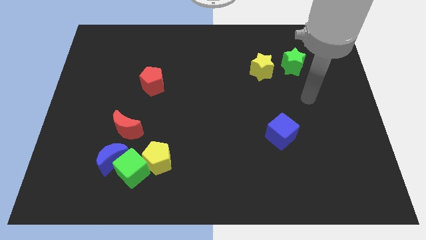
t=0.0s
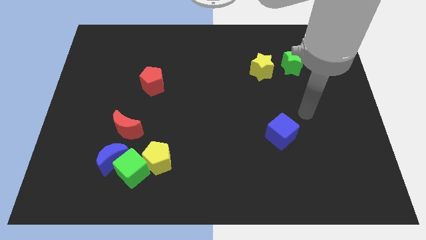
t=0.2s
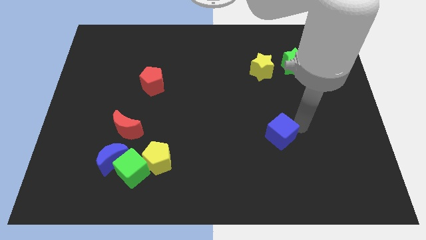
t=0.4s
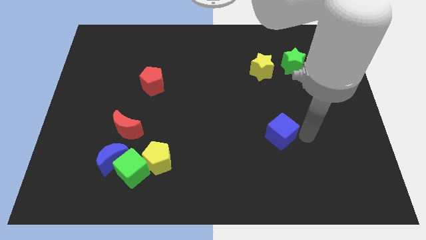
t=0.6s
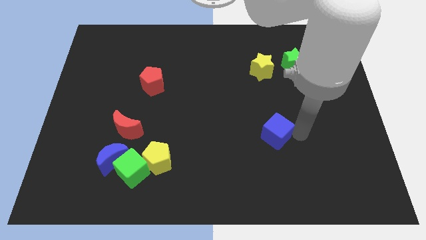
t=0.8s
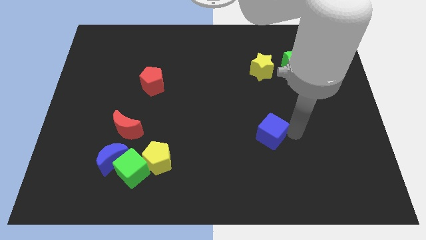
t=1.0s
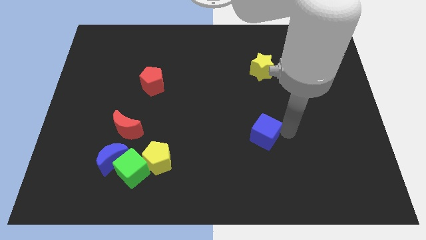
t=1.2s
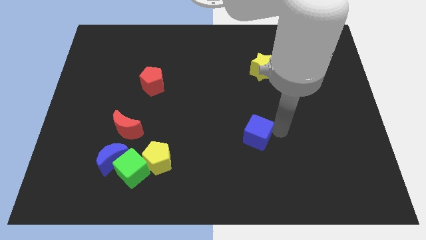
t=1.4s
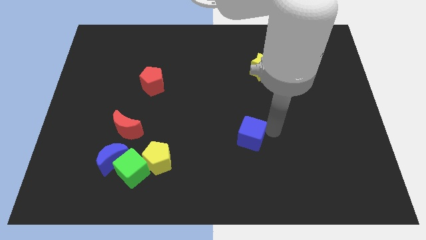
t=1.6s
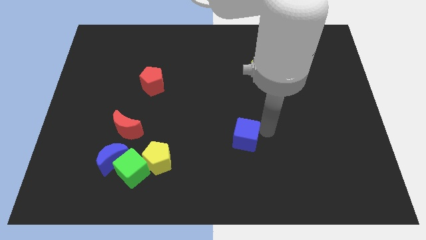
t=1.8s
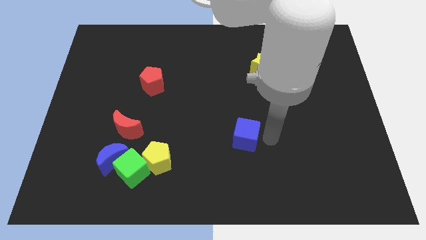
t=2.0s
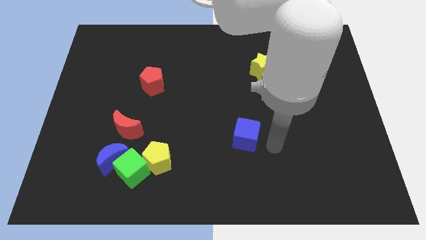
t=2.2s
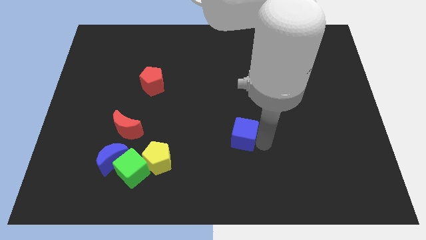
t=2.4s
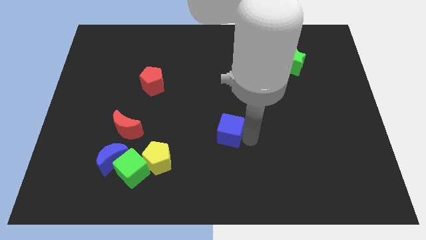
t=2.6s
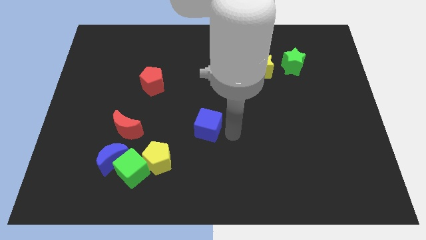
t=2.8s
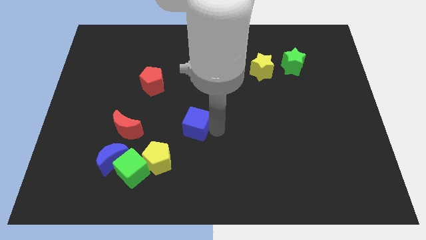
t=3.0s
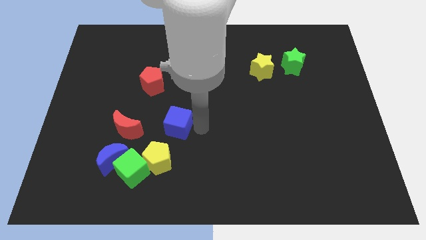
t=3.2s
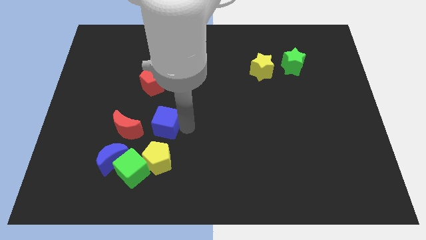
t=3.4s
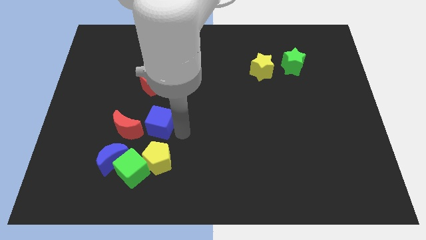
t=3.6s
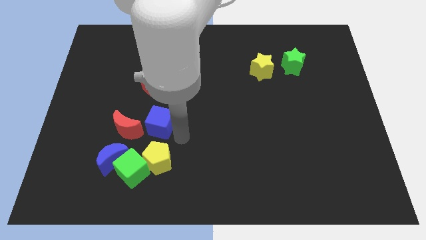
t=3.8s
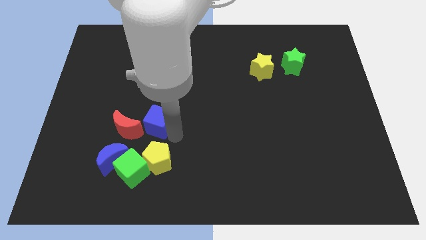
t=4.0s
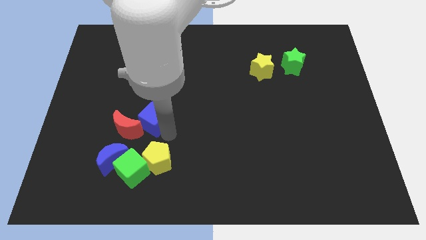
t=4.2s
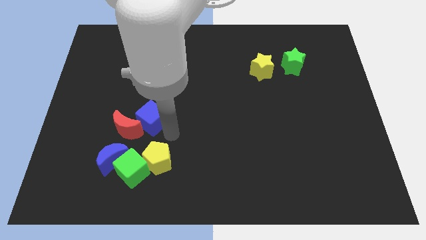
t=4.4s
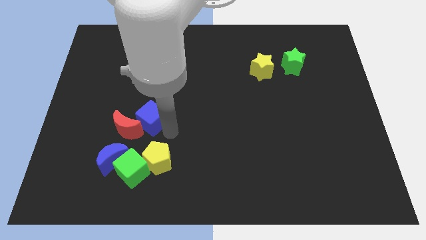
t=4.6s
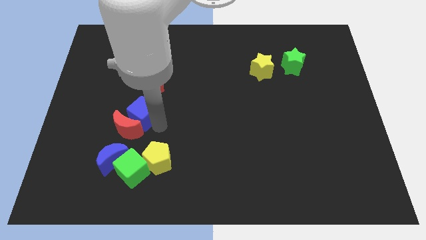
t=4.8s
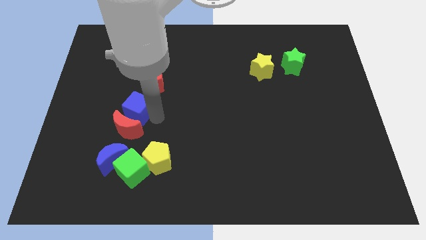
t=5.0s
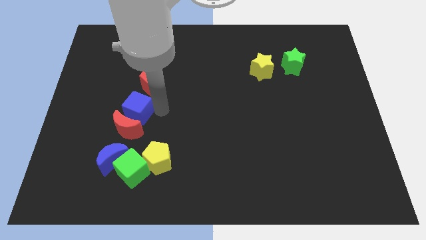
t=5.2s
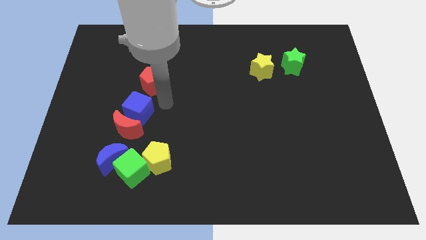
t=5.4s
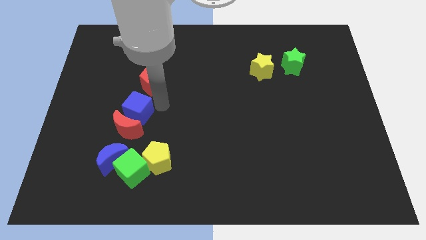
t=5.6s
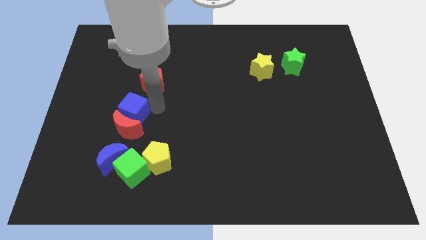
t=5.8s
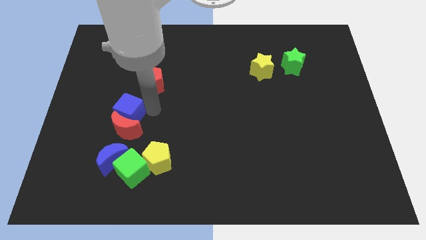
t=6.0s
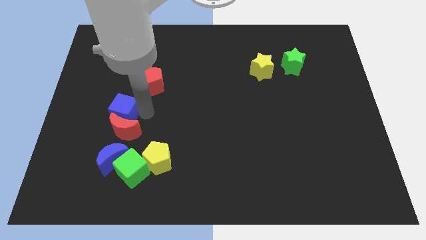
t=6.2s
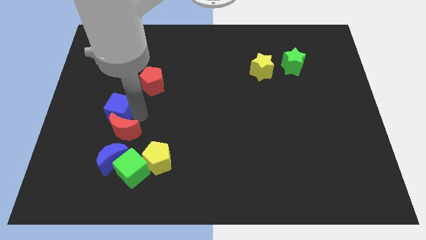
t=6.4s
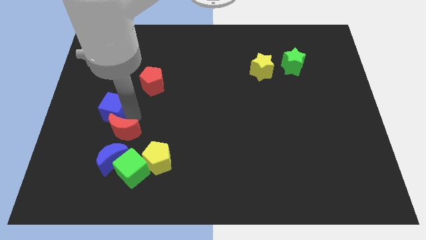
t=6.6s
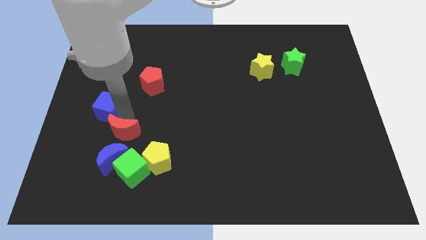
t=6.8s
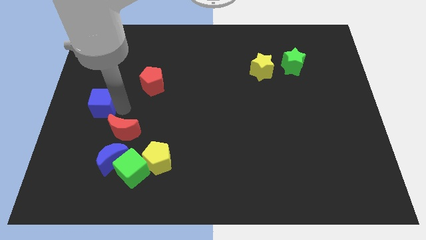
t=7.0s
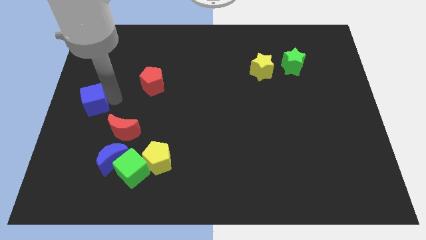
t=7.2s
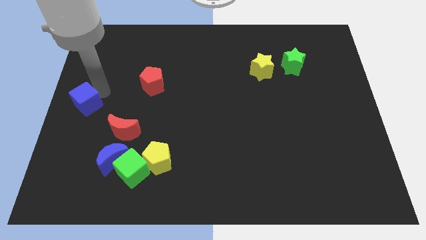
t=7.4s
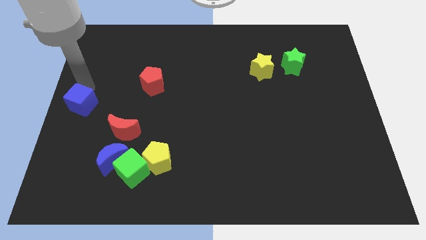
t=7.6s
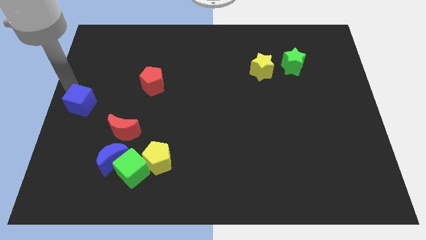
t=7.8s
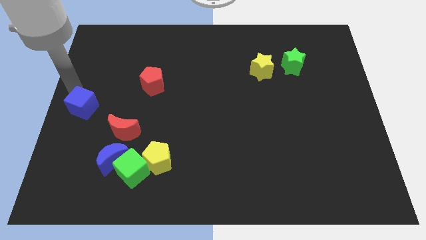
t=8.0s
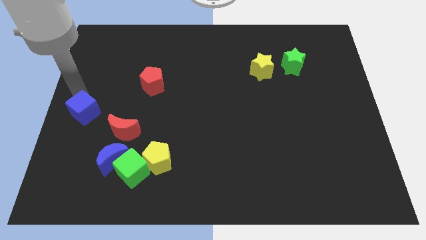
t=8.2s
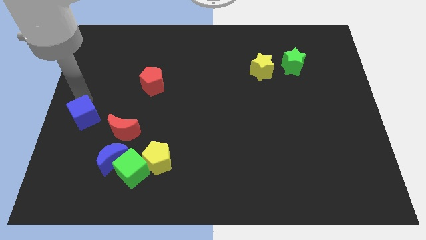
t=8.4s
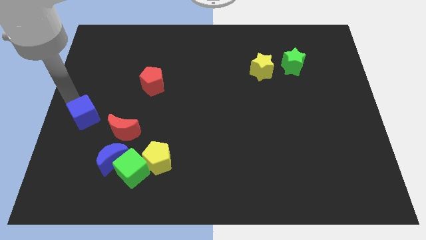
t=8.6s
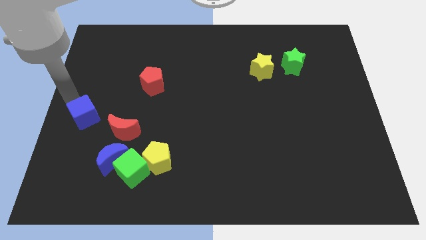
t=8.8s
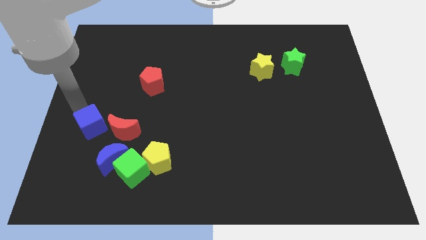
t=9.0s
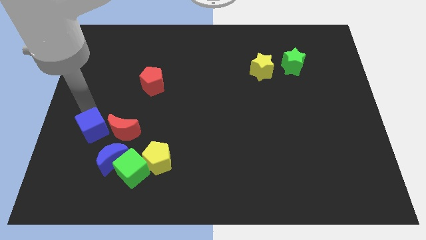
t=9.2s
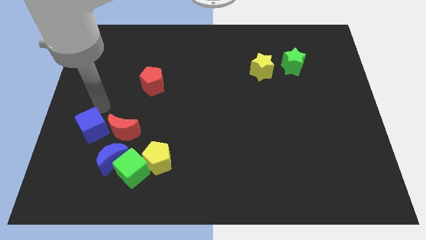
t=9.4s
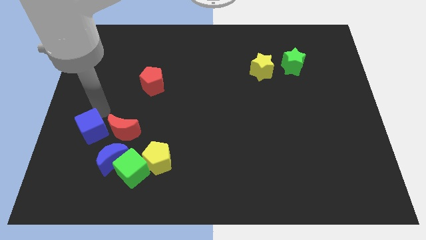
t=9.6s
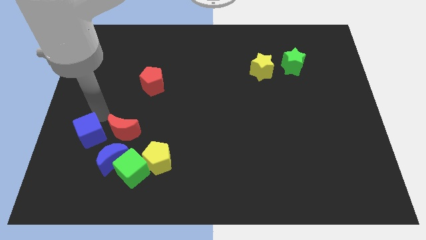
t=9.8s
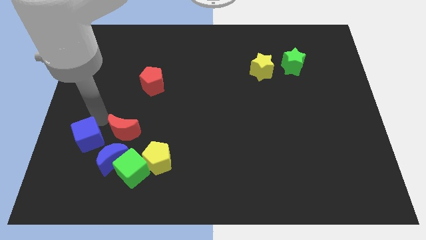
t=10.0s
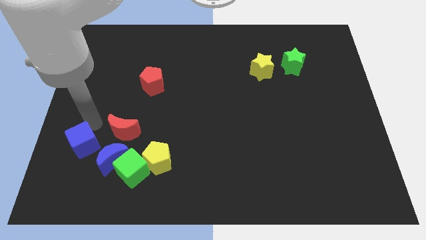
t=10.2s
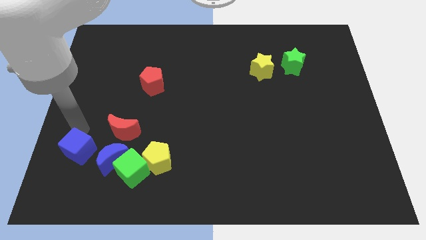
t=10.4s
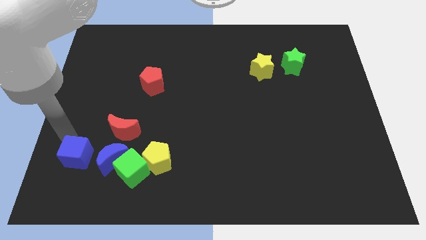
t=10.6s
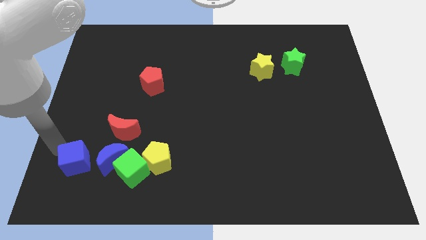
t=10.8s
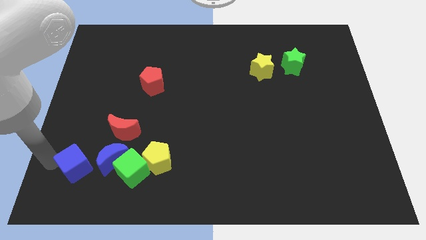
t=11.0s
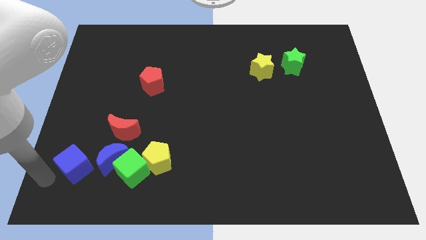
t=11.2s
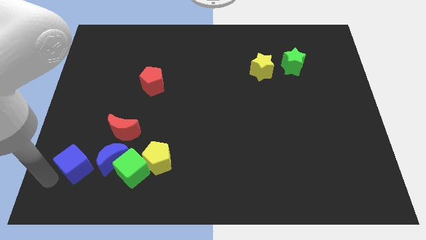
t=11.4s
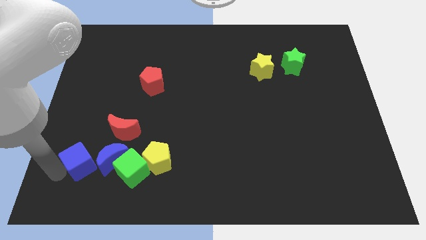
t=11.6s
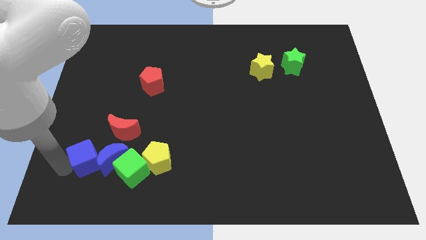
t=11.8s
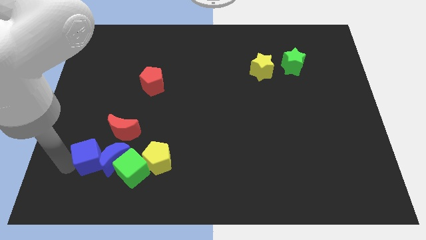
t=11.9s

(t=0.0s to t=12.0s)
move the blue cube diagonally up and to the left of the green cube

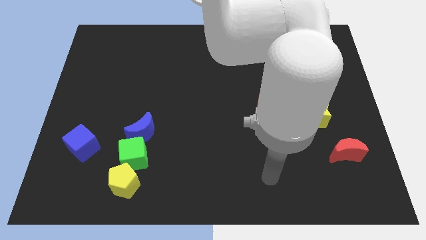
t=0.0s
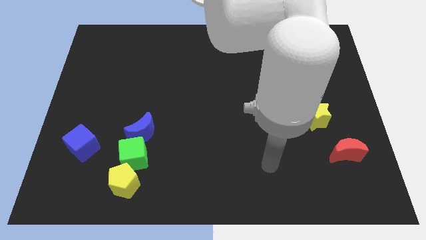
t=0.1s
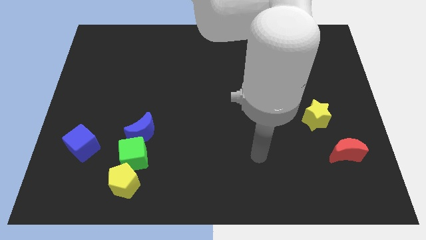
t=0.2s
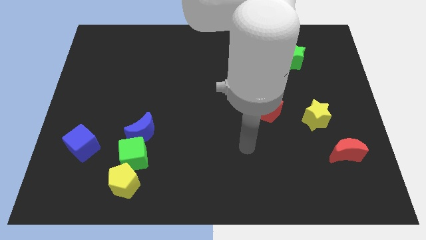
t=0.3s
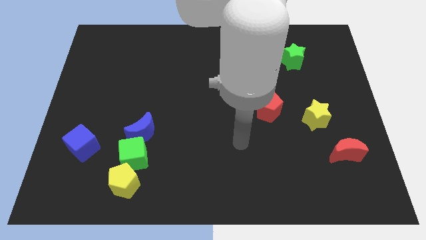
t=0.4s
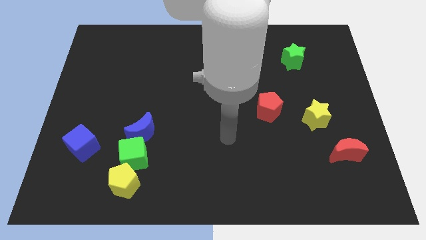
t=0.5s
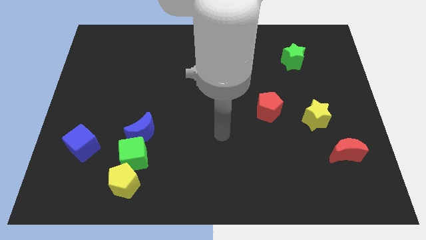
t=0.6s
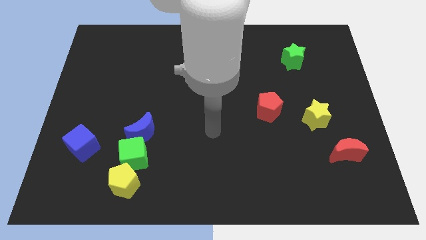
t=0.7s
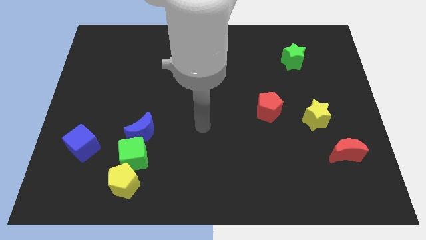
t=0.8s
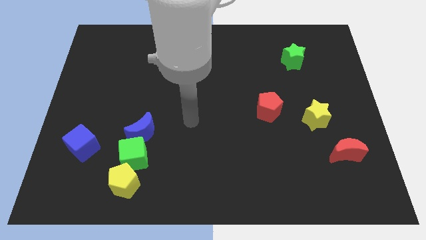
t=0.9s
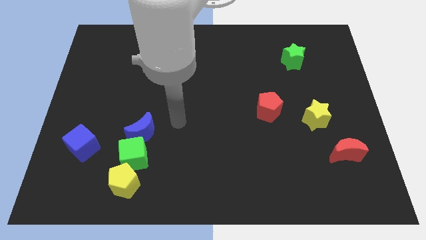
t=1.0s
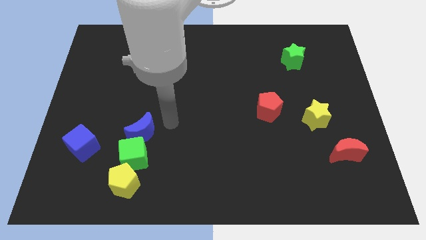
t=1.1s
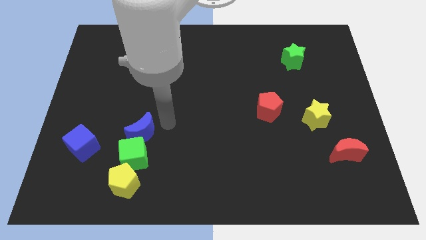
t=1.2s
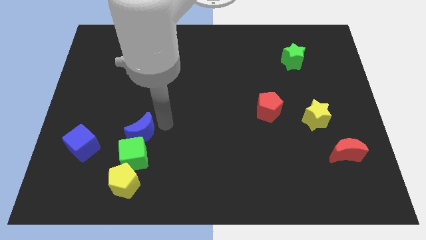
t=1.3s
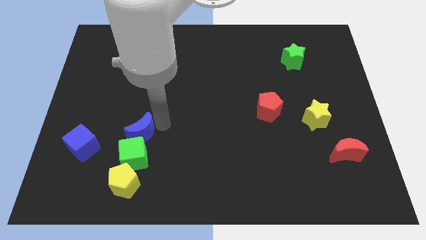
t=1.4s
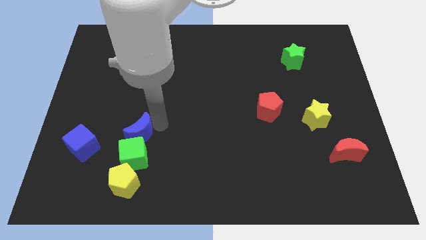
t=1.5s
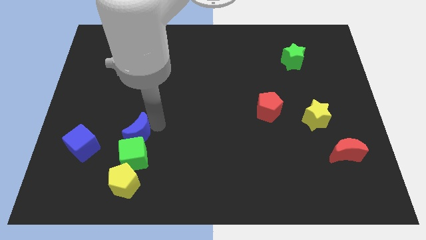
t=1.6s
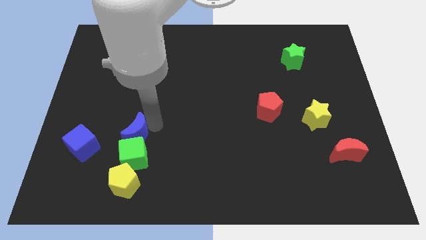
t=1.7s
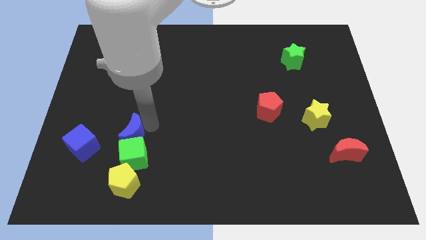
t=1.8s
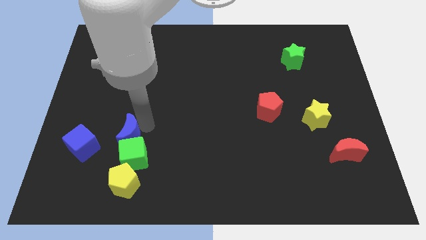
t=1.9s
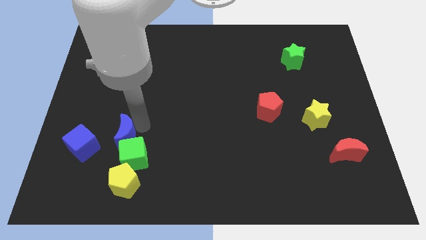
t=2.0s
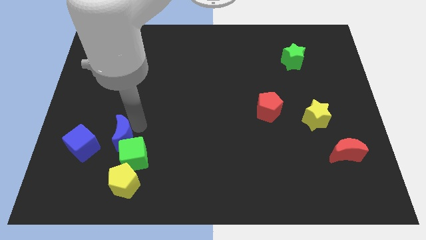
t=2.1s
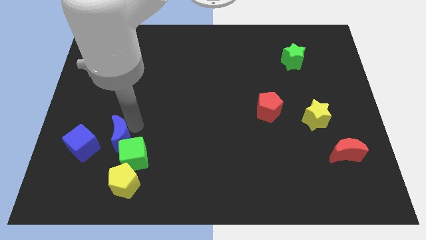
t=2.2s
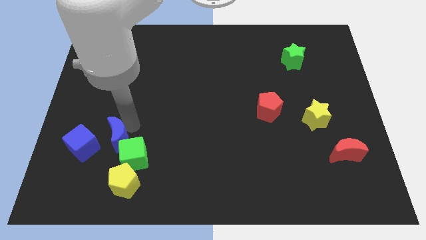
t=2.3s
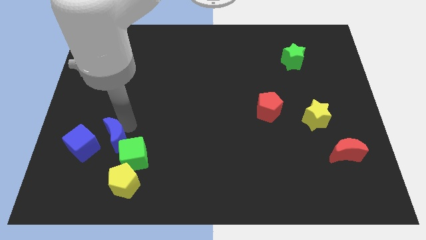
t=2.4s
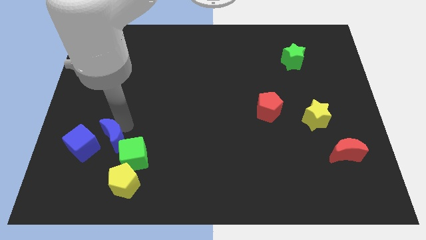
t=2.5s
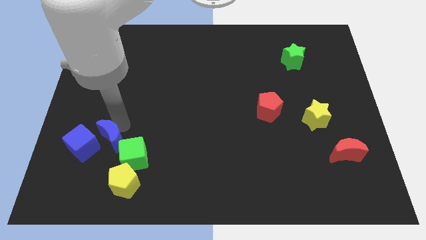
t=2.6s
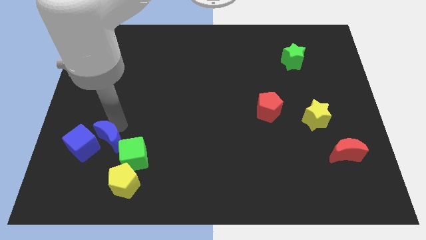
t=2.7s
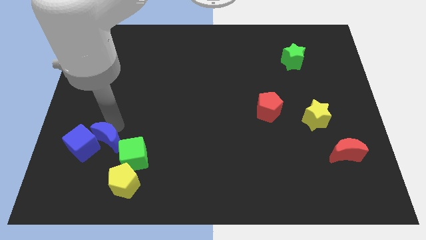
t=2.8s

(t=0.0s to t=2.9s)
put the blue moon to the top left side of the yellow pentagon
